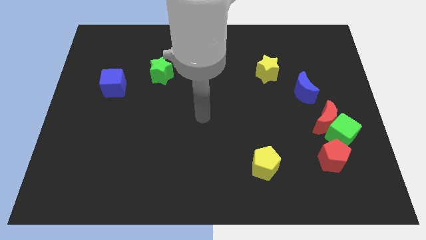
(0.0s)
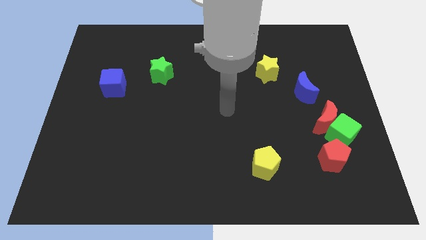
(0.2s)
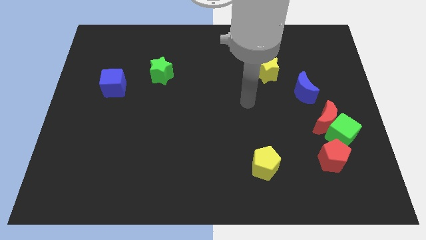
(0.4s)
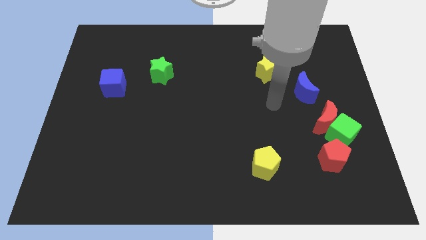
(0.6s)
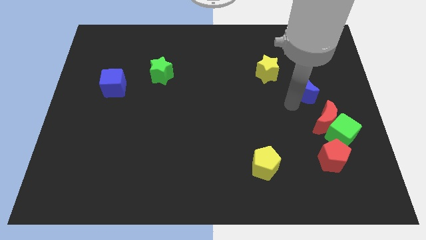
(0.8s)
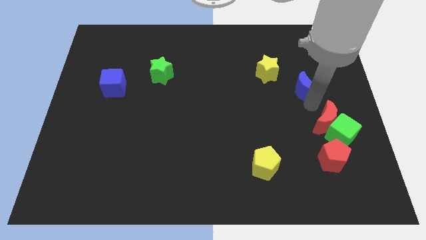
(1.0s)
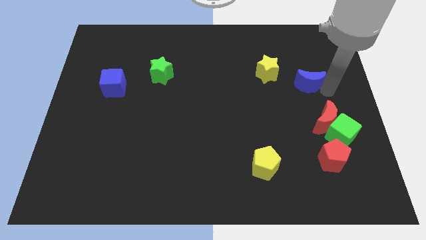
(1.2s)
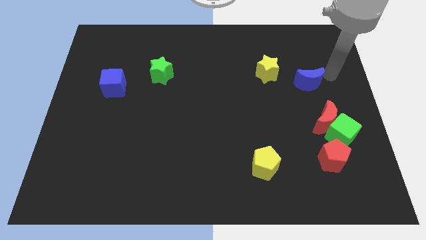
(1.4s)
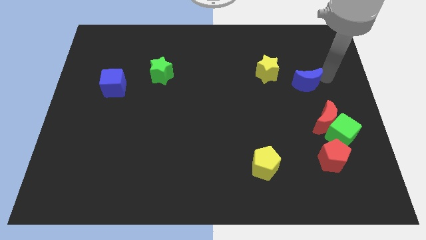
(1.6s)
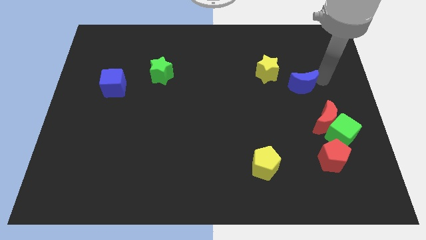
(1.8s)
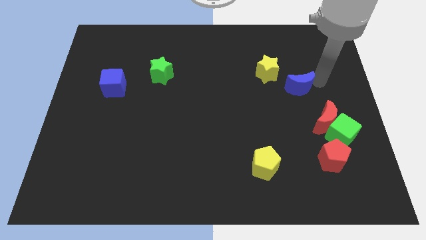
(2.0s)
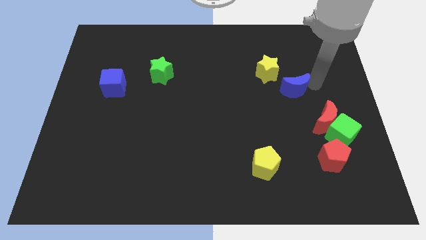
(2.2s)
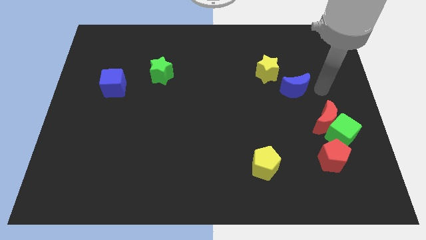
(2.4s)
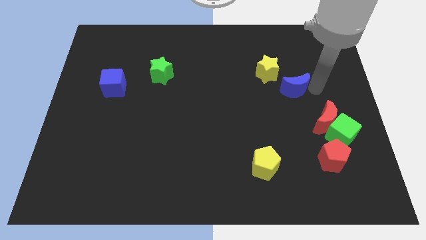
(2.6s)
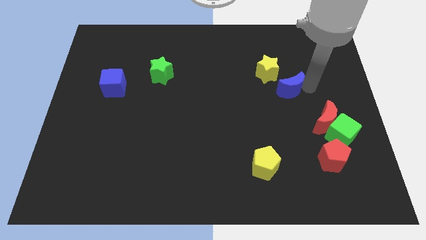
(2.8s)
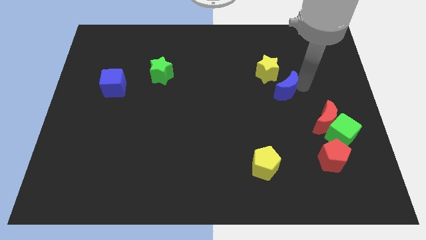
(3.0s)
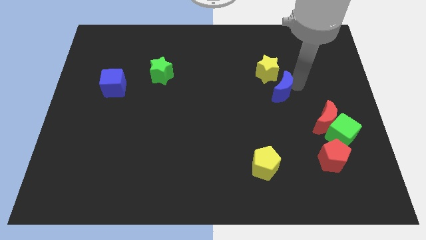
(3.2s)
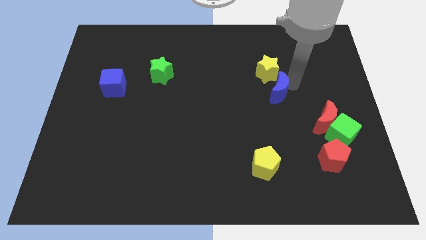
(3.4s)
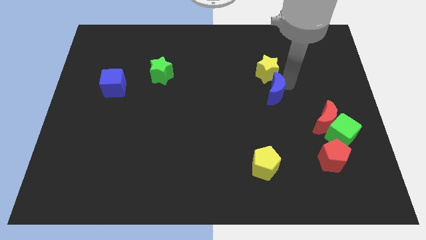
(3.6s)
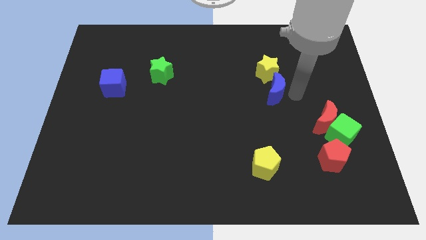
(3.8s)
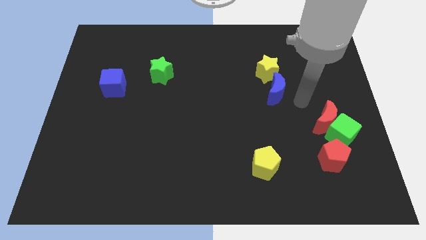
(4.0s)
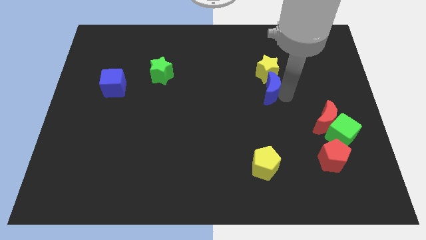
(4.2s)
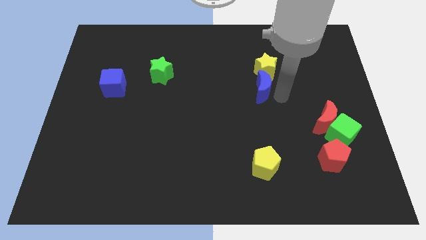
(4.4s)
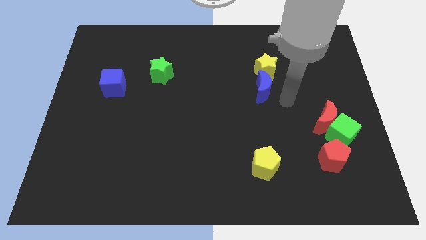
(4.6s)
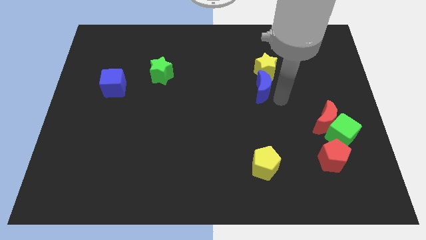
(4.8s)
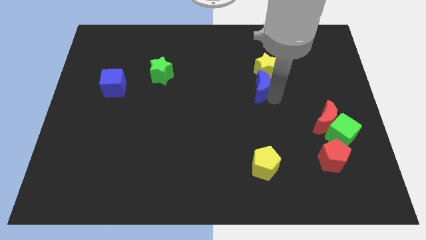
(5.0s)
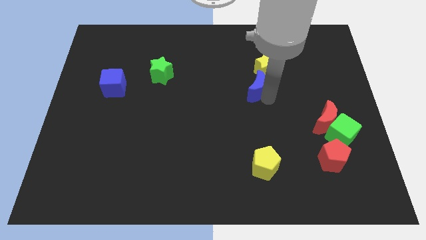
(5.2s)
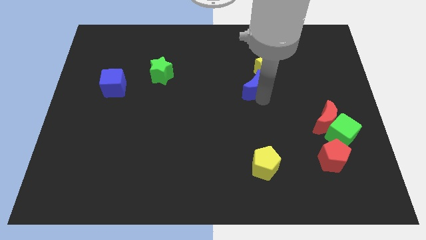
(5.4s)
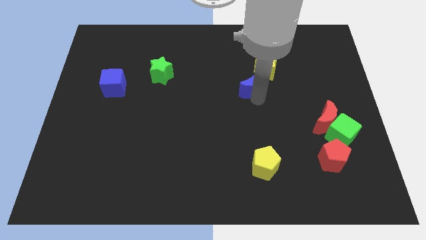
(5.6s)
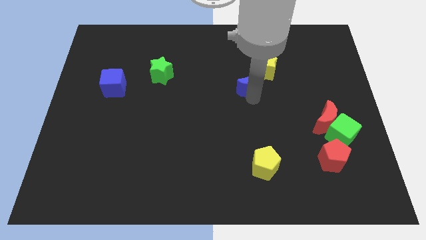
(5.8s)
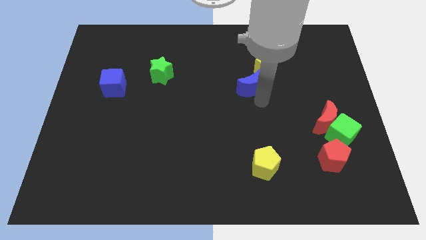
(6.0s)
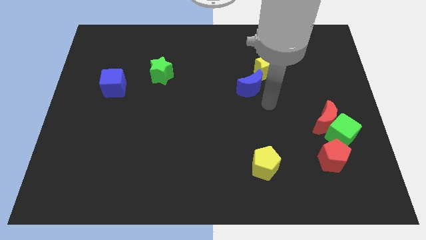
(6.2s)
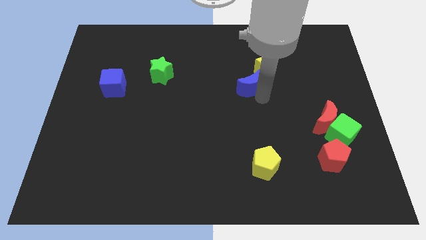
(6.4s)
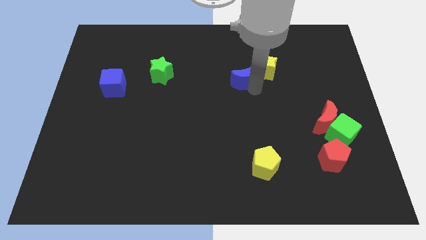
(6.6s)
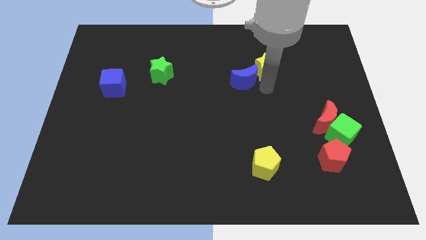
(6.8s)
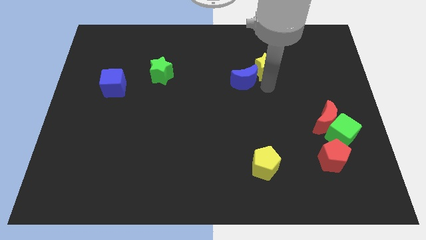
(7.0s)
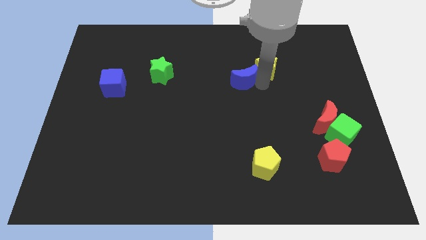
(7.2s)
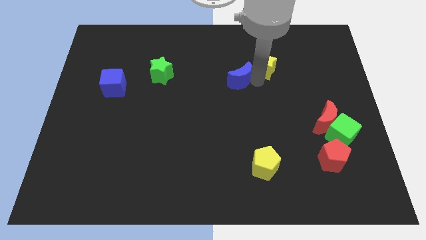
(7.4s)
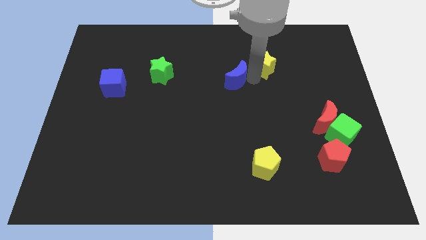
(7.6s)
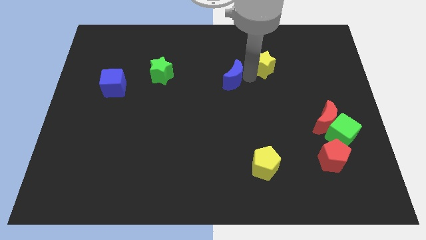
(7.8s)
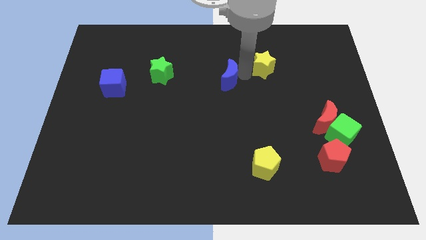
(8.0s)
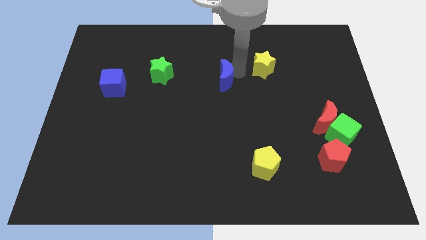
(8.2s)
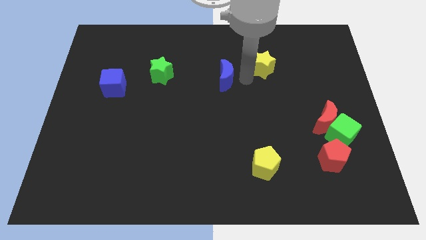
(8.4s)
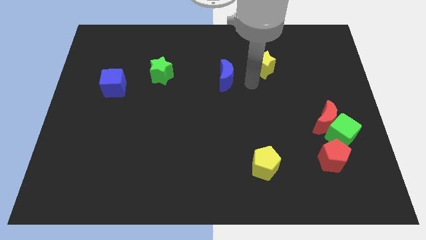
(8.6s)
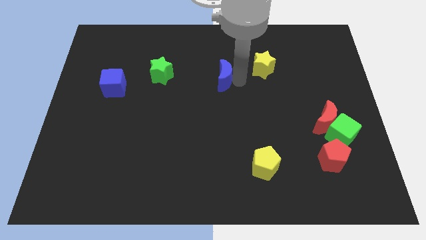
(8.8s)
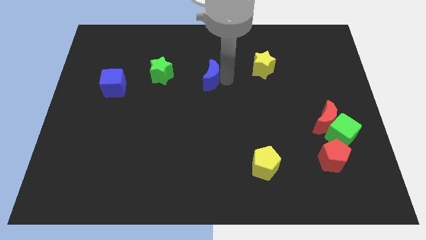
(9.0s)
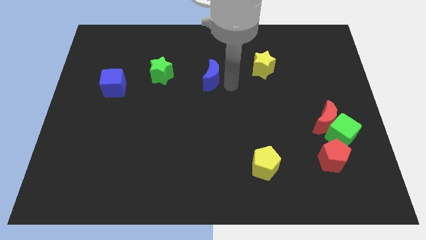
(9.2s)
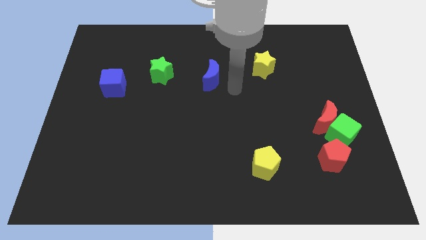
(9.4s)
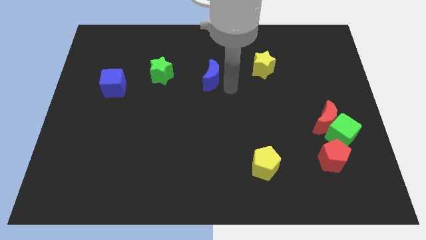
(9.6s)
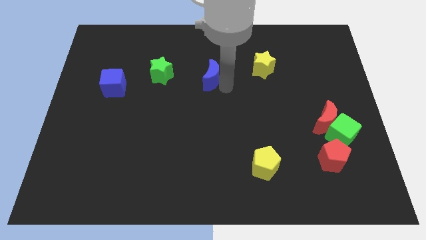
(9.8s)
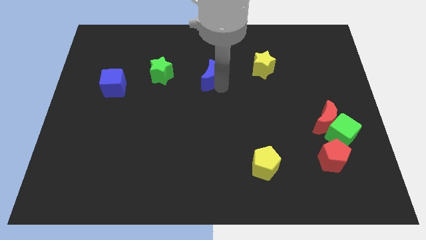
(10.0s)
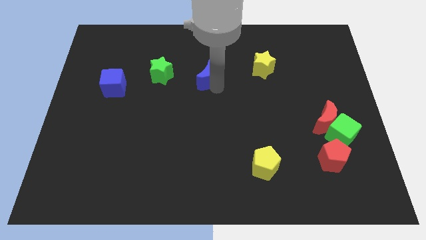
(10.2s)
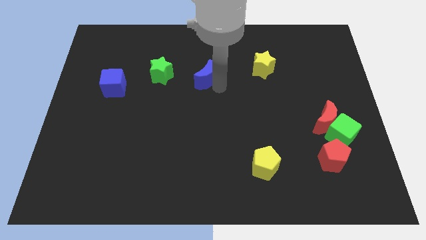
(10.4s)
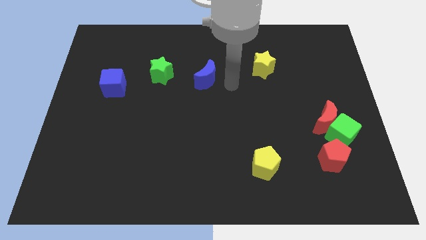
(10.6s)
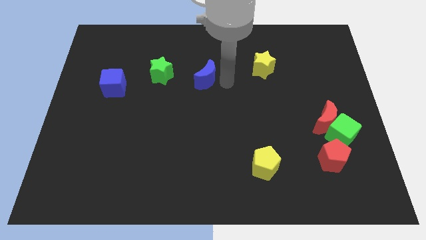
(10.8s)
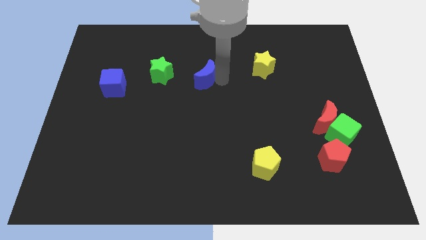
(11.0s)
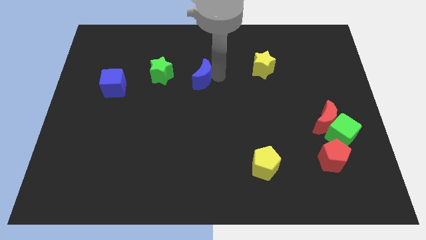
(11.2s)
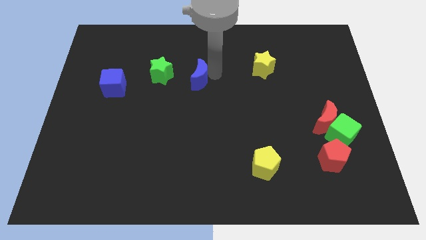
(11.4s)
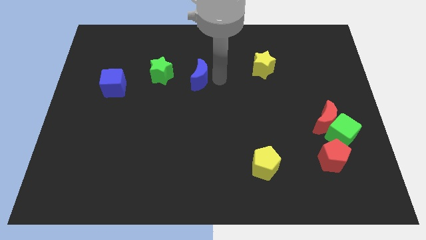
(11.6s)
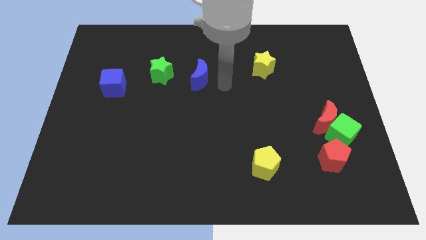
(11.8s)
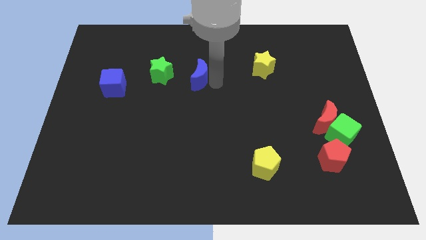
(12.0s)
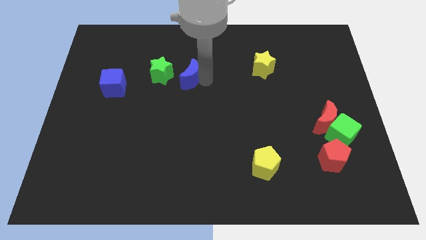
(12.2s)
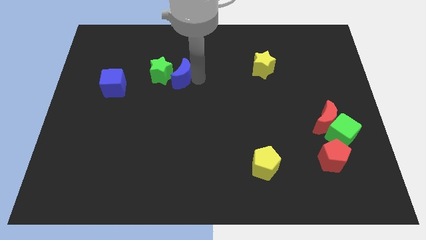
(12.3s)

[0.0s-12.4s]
move the blue moon towards the green star
